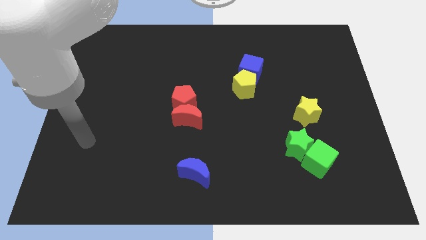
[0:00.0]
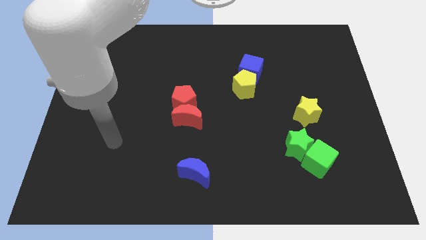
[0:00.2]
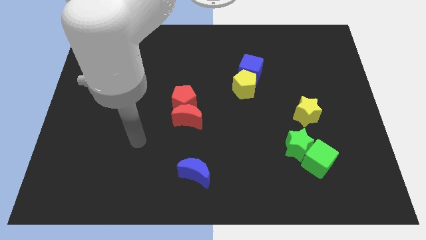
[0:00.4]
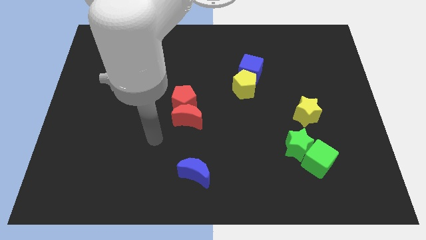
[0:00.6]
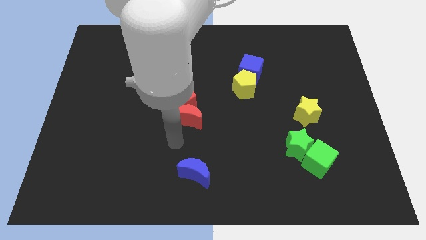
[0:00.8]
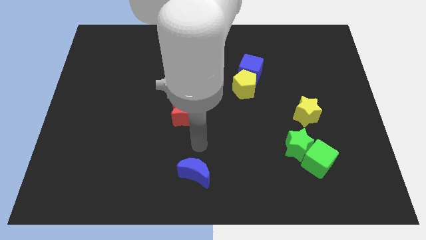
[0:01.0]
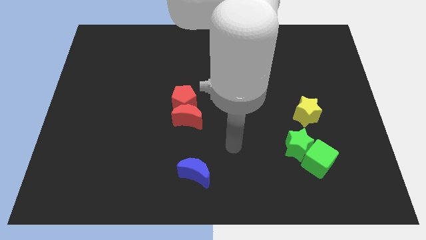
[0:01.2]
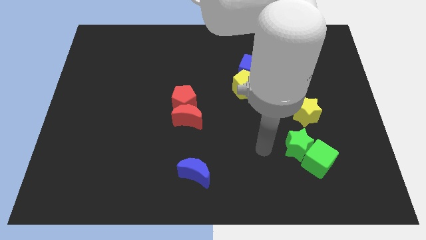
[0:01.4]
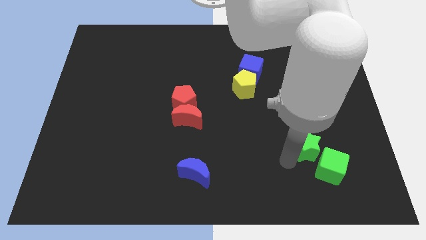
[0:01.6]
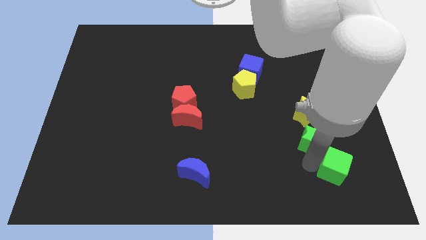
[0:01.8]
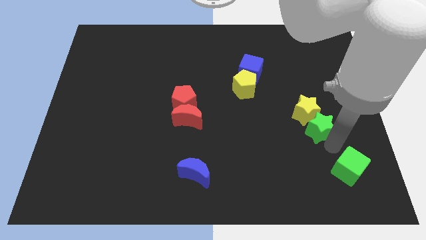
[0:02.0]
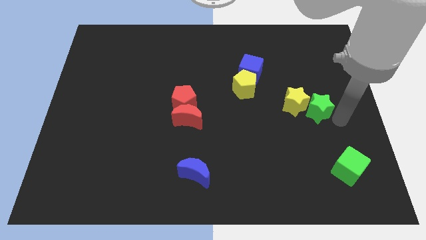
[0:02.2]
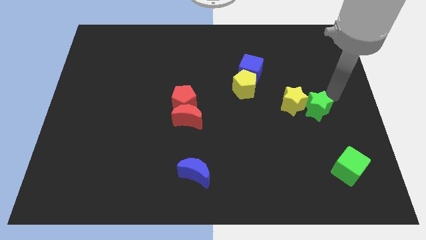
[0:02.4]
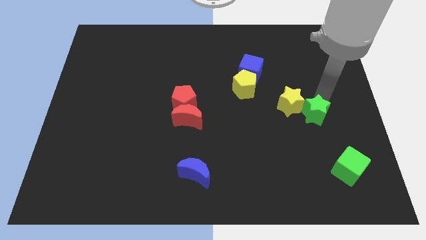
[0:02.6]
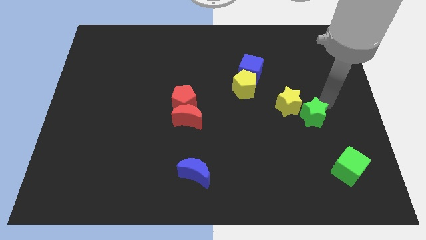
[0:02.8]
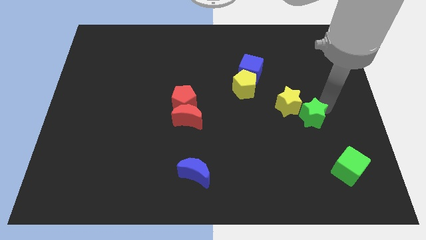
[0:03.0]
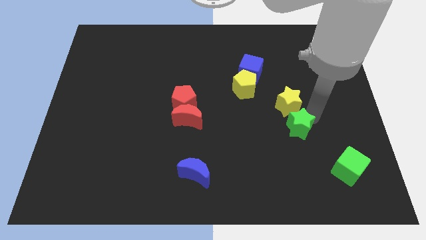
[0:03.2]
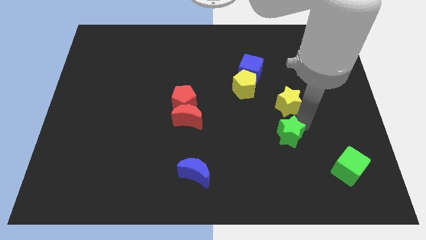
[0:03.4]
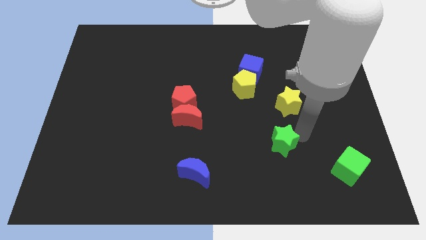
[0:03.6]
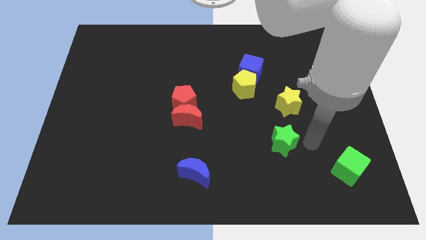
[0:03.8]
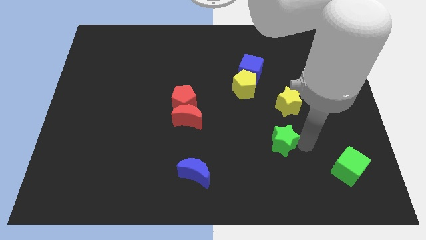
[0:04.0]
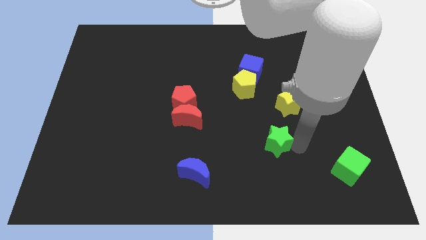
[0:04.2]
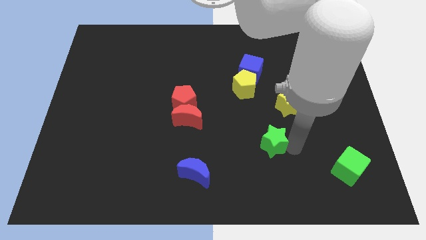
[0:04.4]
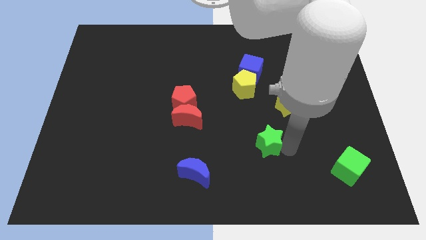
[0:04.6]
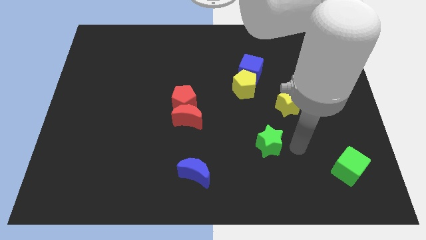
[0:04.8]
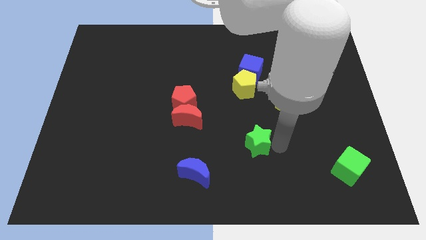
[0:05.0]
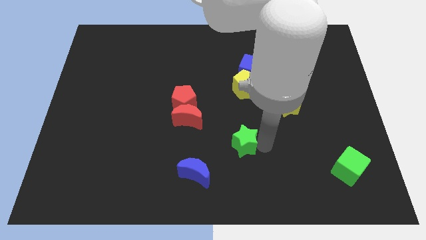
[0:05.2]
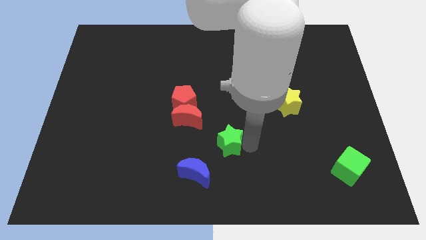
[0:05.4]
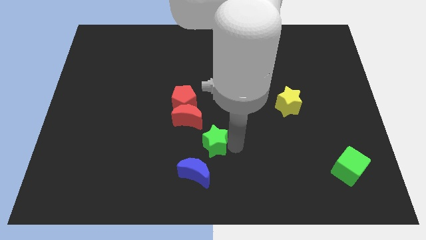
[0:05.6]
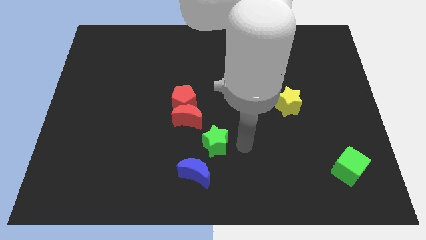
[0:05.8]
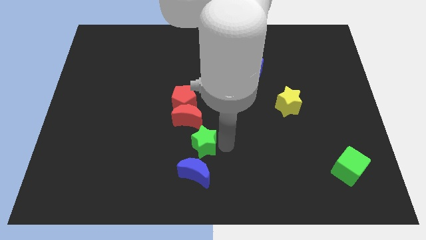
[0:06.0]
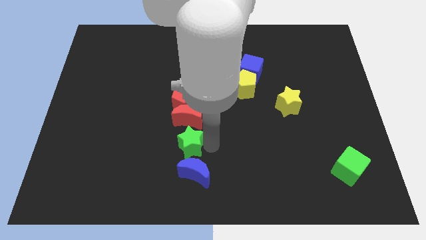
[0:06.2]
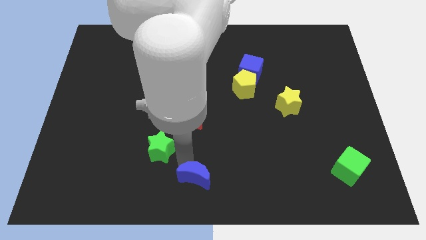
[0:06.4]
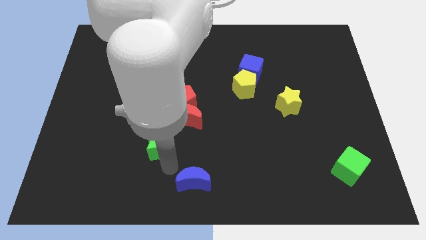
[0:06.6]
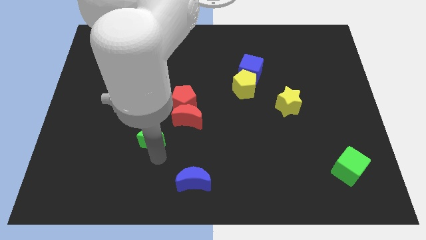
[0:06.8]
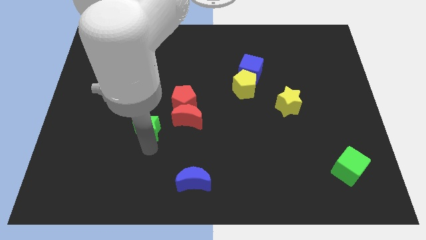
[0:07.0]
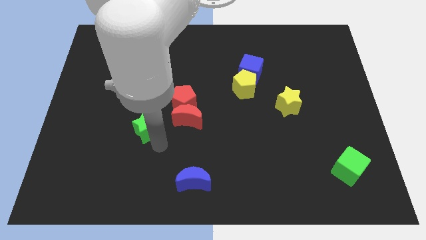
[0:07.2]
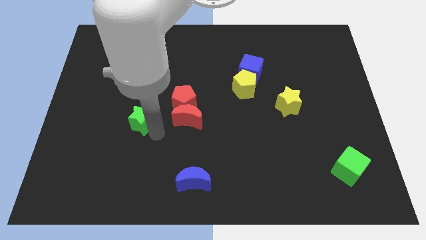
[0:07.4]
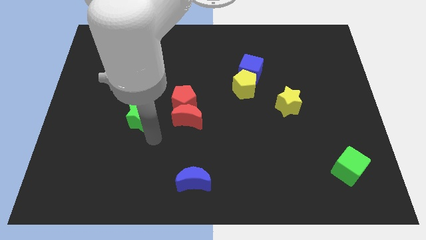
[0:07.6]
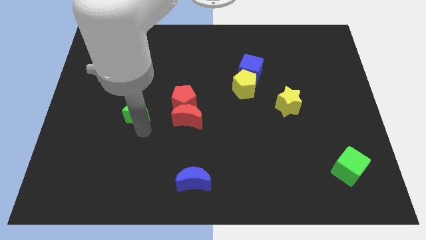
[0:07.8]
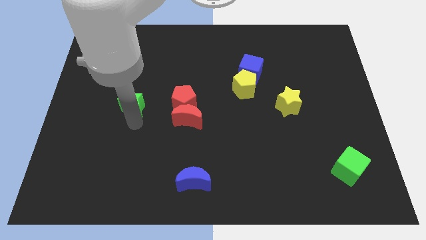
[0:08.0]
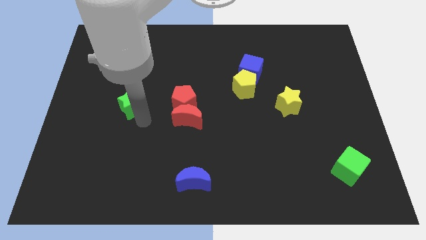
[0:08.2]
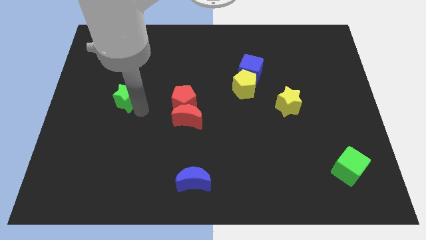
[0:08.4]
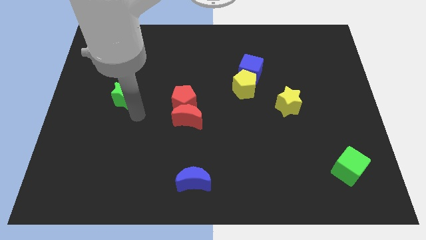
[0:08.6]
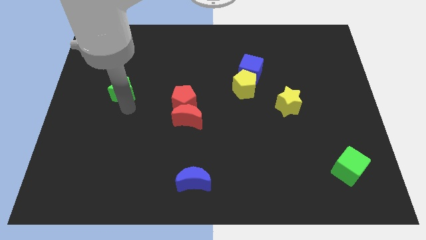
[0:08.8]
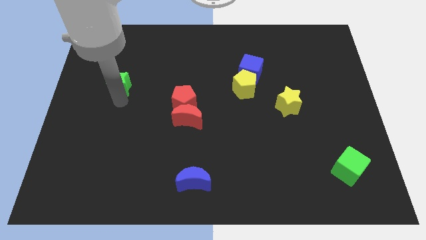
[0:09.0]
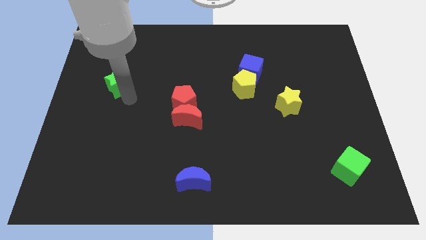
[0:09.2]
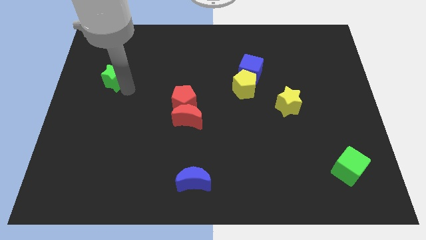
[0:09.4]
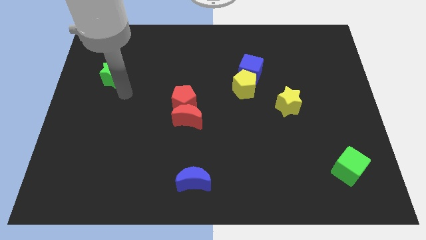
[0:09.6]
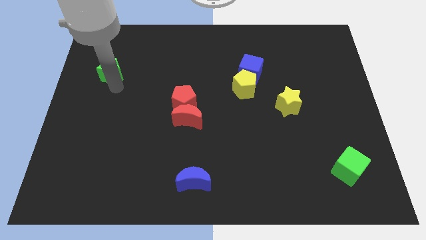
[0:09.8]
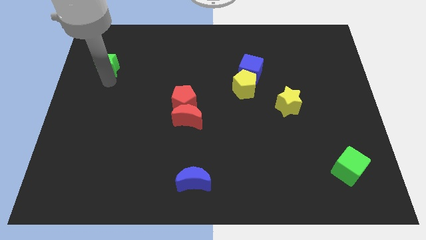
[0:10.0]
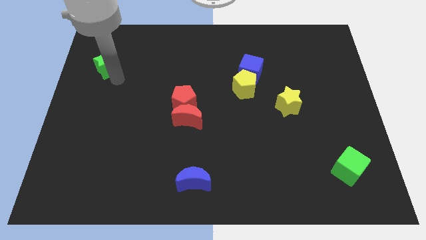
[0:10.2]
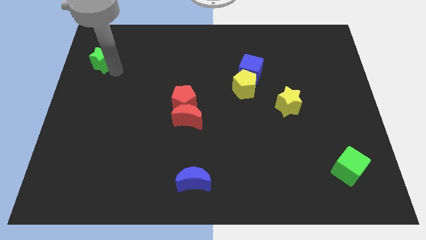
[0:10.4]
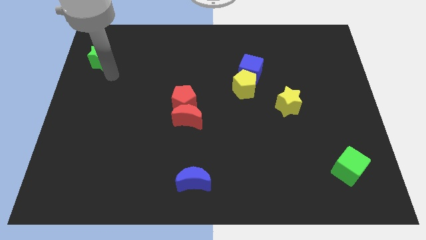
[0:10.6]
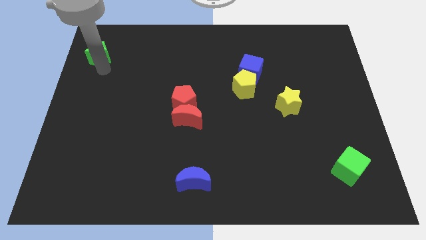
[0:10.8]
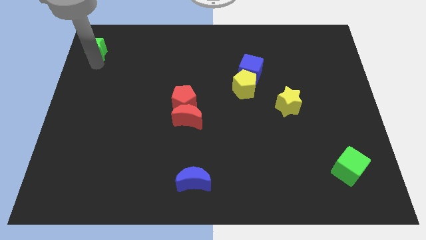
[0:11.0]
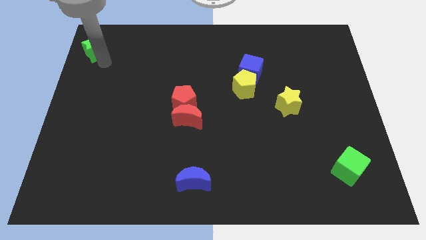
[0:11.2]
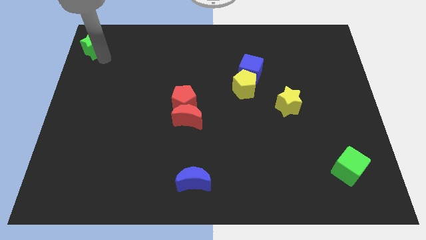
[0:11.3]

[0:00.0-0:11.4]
put the green star to the top left of the board

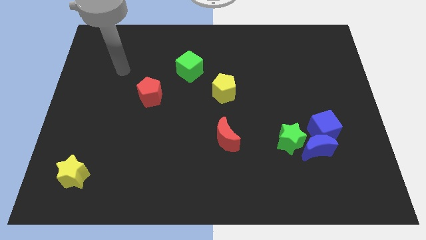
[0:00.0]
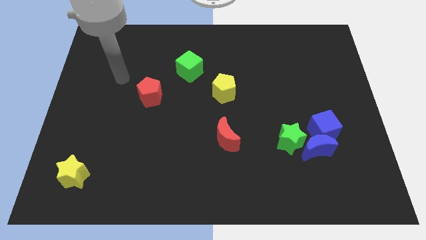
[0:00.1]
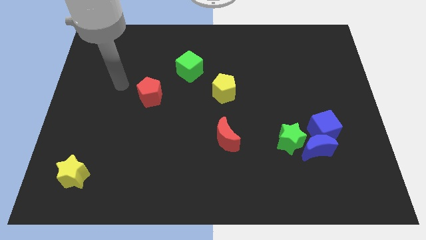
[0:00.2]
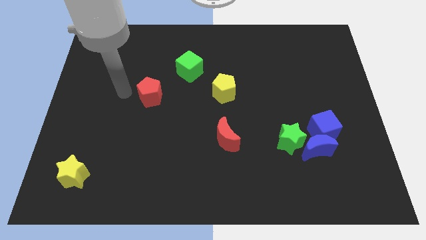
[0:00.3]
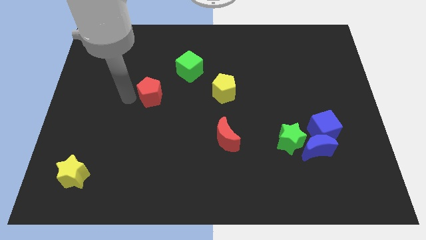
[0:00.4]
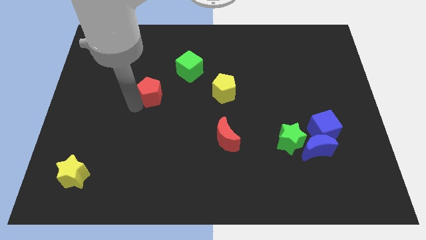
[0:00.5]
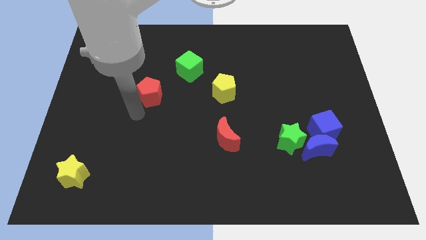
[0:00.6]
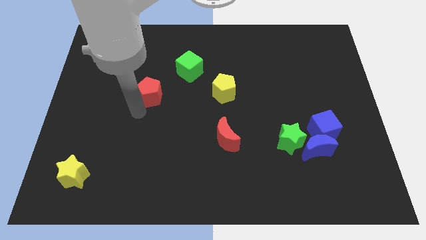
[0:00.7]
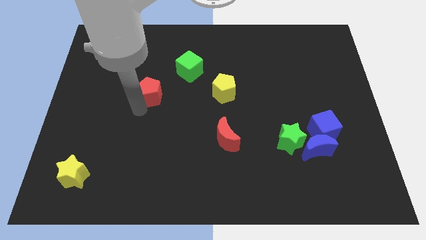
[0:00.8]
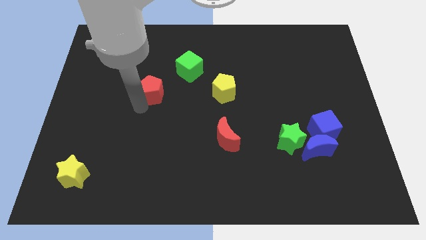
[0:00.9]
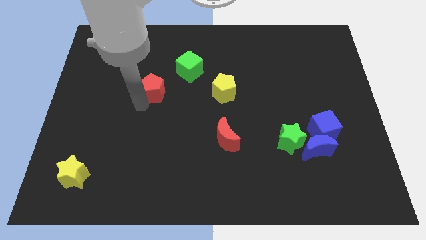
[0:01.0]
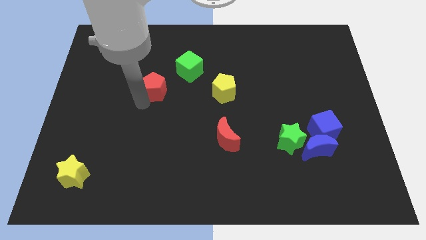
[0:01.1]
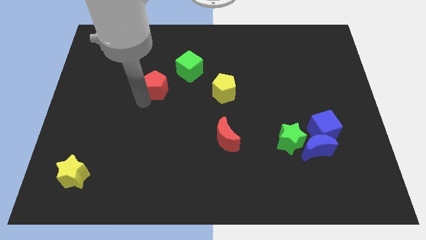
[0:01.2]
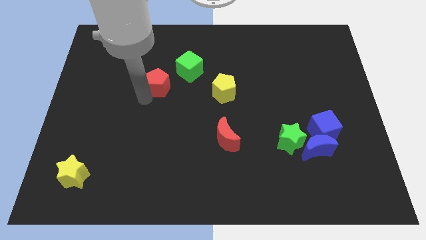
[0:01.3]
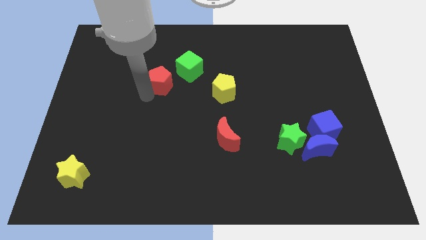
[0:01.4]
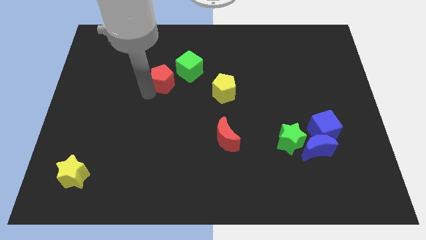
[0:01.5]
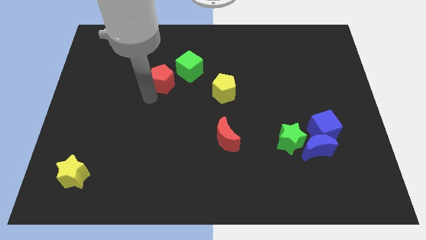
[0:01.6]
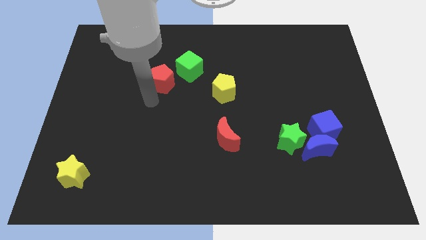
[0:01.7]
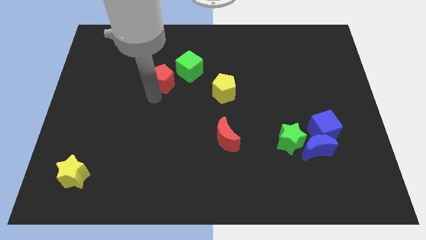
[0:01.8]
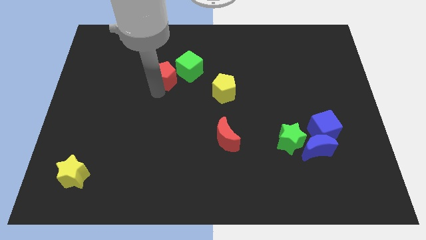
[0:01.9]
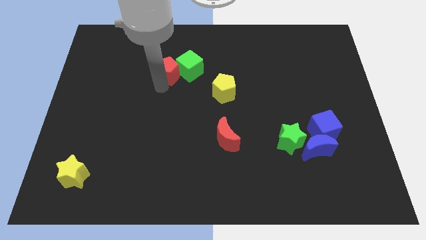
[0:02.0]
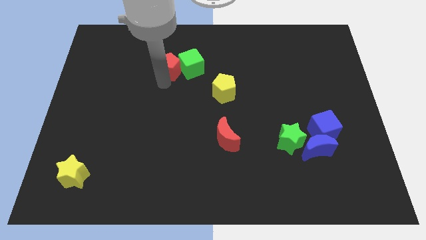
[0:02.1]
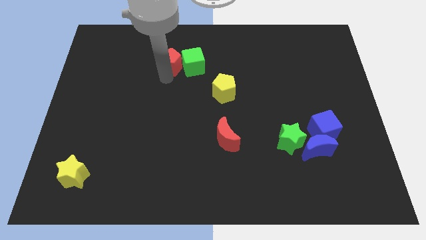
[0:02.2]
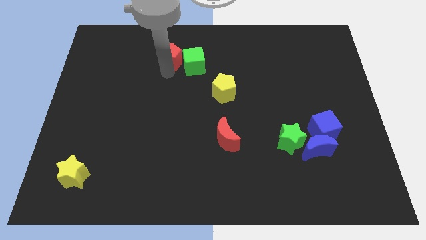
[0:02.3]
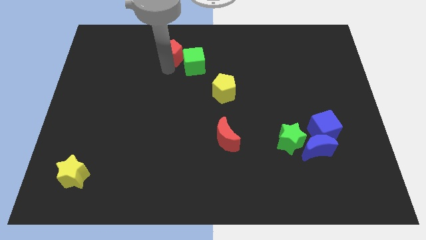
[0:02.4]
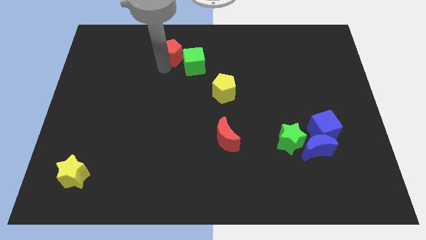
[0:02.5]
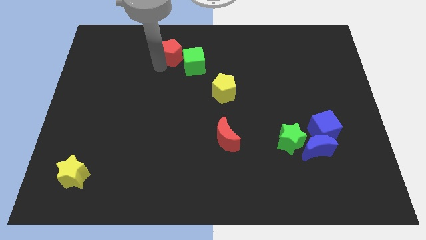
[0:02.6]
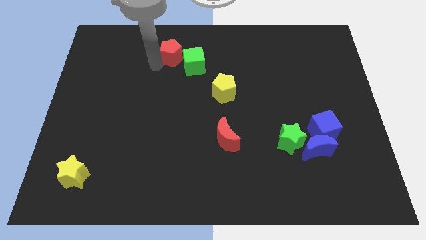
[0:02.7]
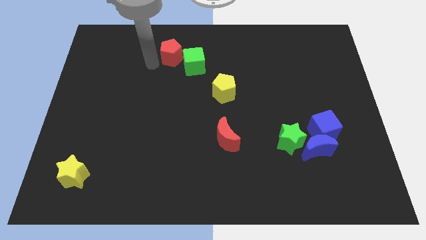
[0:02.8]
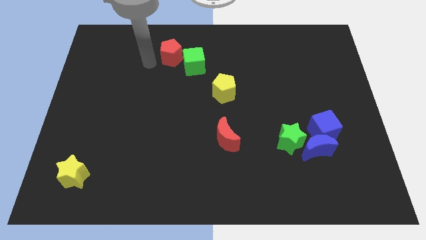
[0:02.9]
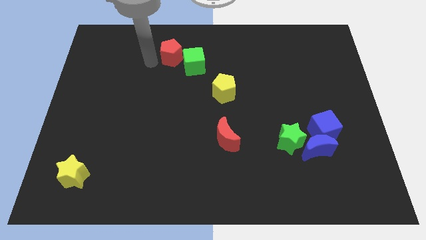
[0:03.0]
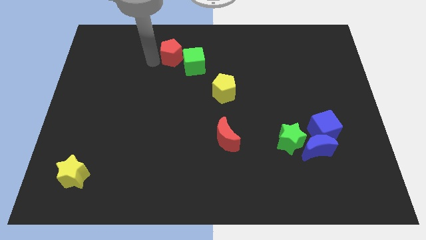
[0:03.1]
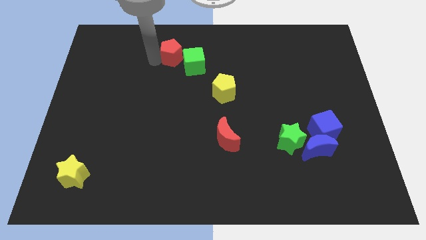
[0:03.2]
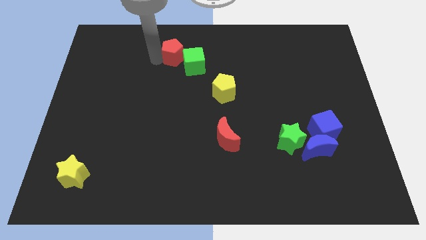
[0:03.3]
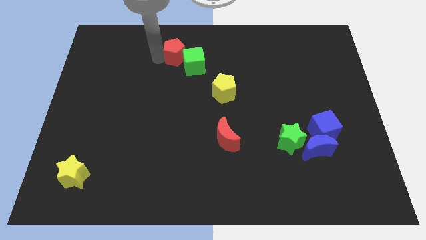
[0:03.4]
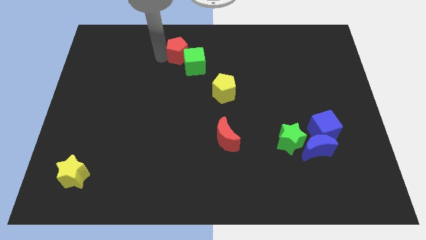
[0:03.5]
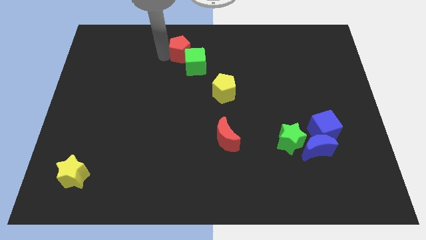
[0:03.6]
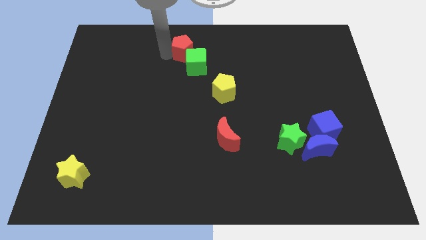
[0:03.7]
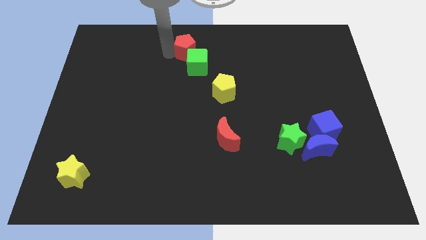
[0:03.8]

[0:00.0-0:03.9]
slide the red pentagon to the top side
